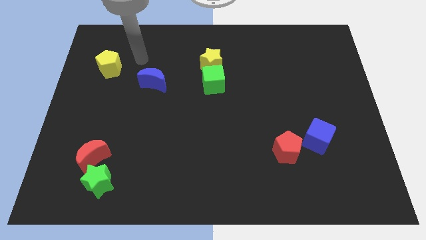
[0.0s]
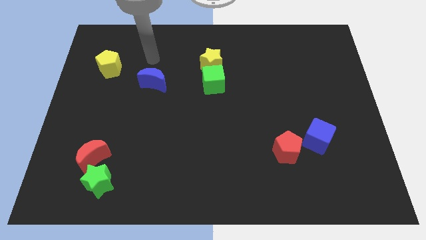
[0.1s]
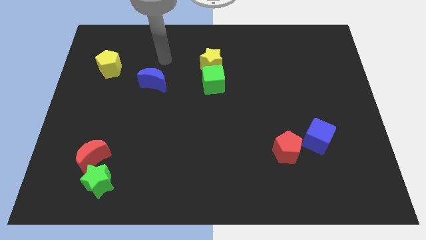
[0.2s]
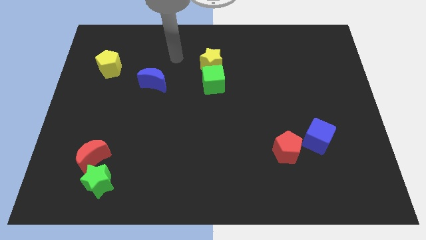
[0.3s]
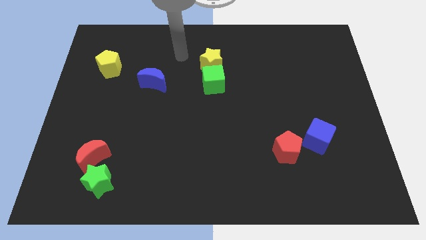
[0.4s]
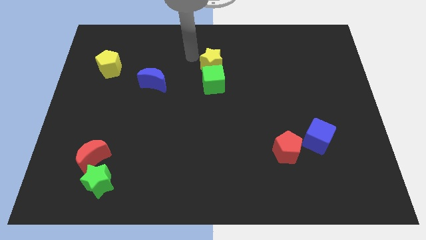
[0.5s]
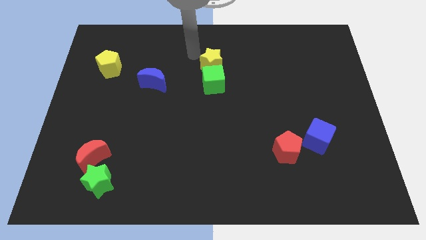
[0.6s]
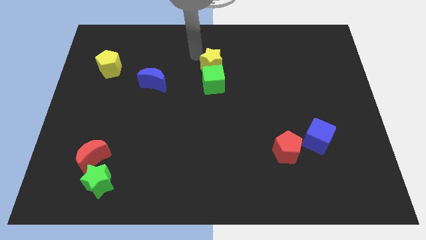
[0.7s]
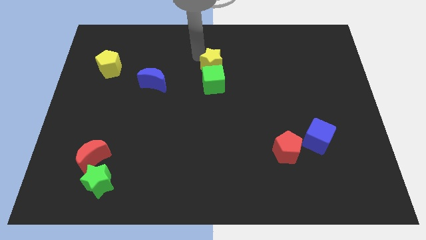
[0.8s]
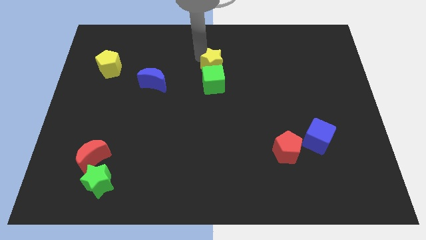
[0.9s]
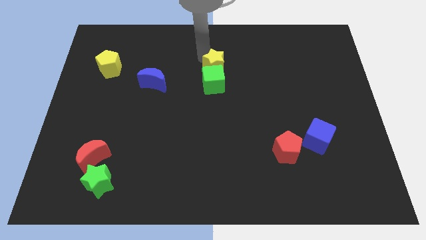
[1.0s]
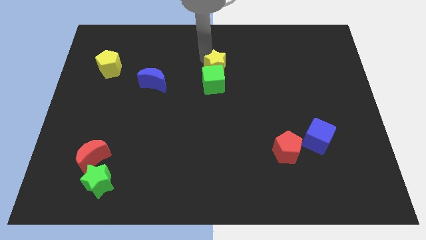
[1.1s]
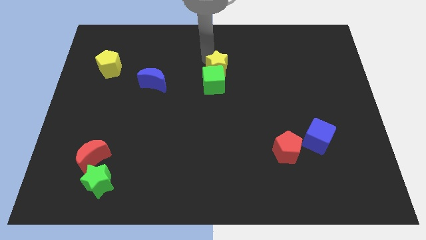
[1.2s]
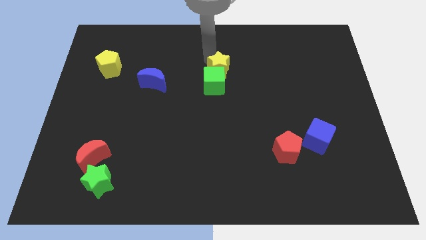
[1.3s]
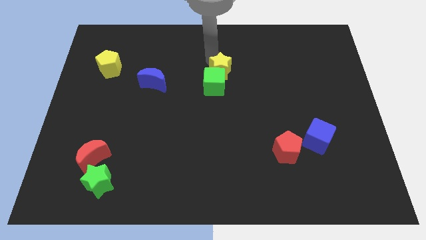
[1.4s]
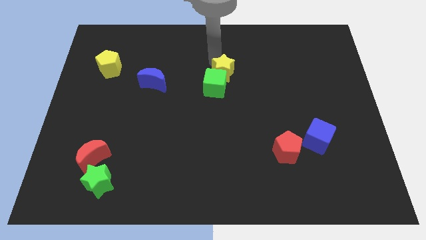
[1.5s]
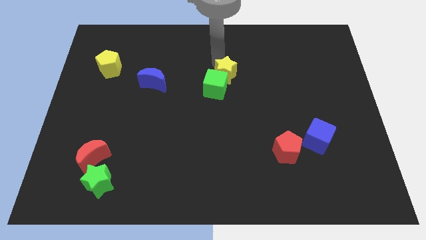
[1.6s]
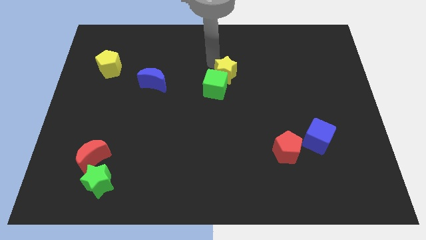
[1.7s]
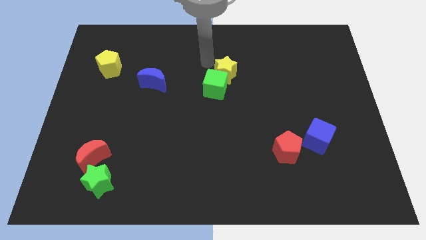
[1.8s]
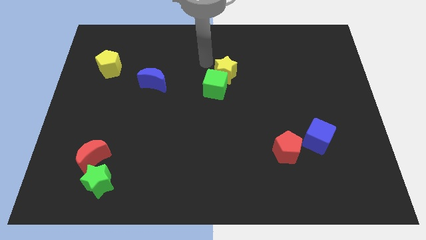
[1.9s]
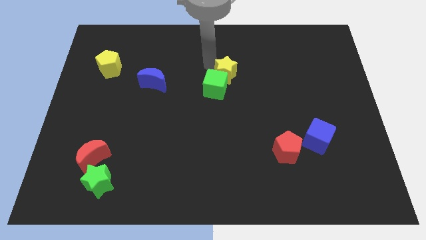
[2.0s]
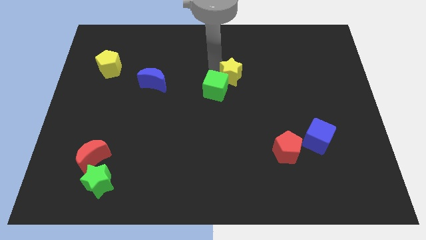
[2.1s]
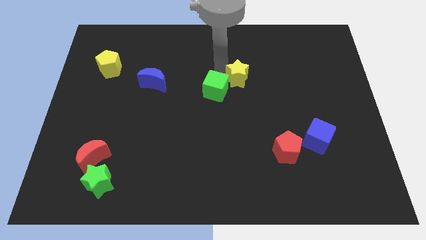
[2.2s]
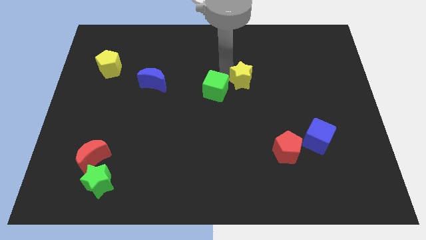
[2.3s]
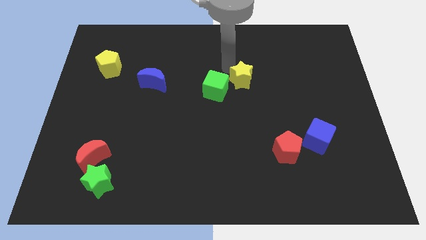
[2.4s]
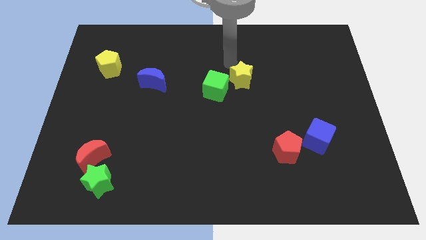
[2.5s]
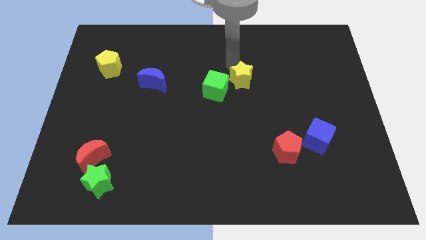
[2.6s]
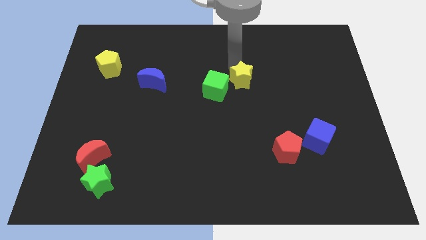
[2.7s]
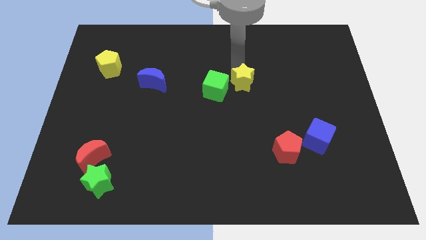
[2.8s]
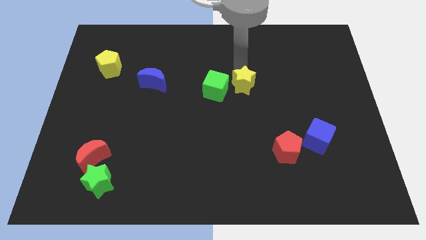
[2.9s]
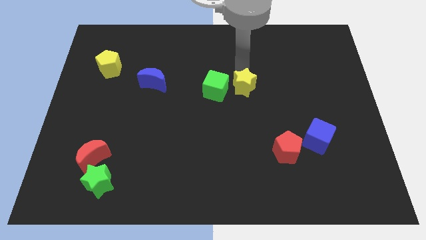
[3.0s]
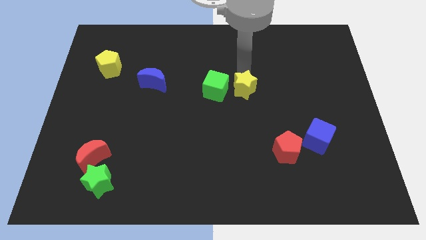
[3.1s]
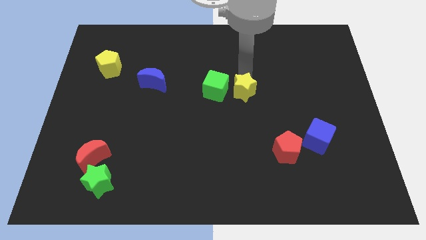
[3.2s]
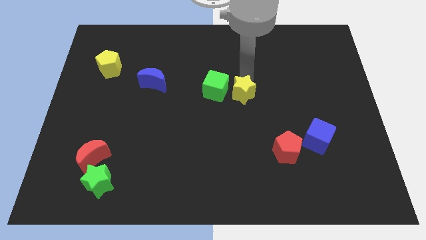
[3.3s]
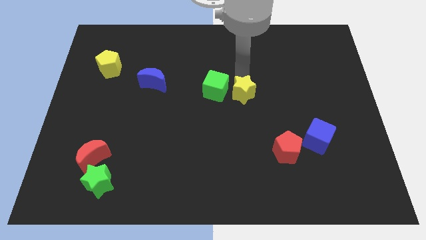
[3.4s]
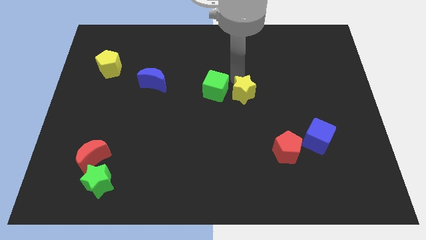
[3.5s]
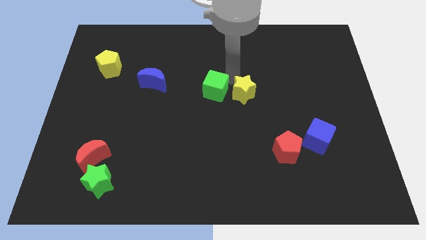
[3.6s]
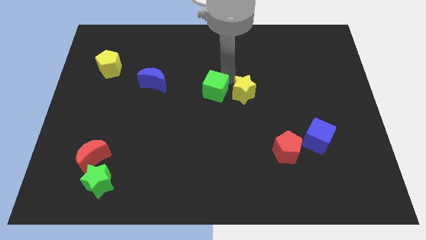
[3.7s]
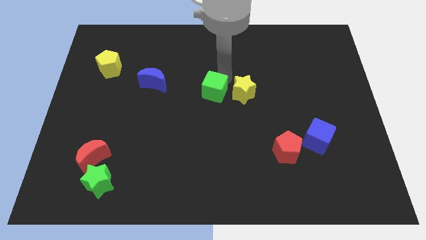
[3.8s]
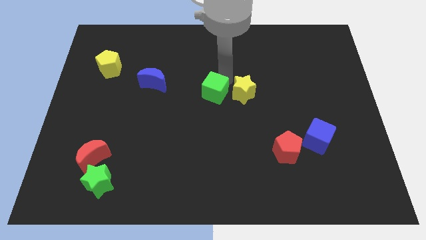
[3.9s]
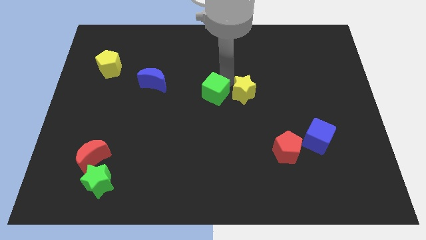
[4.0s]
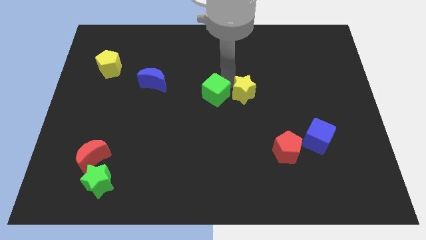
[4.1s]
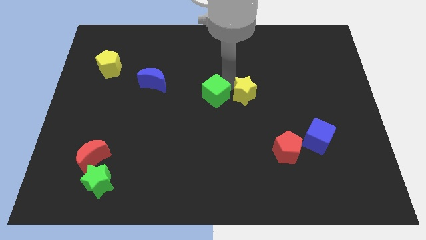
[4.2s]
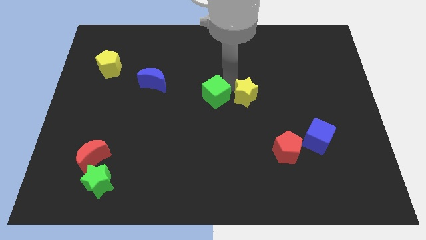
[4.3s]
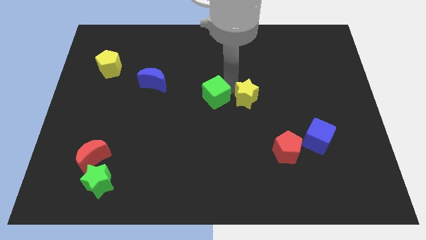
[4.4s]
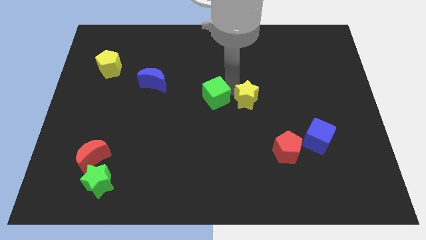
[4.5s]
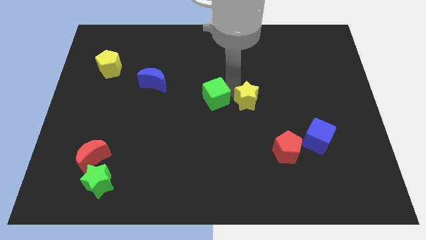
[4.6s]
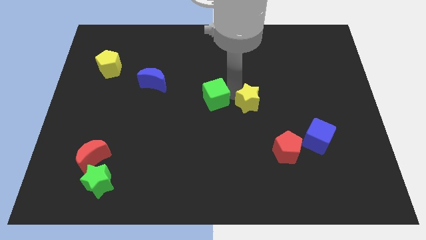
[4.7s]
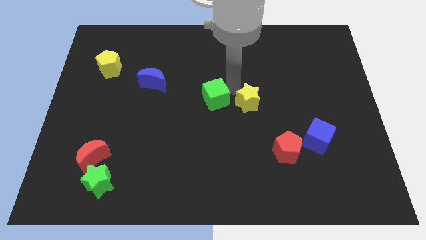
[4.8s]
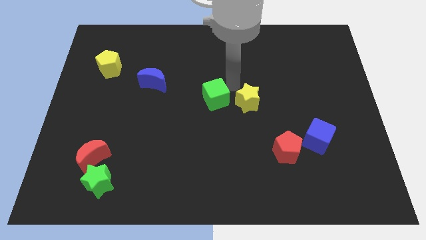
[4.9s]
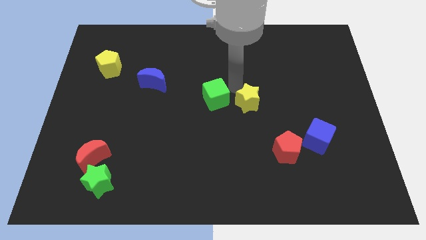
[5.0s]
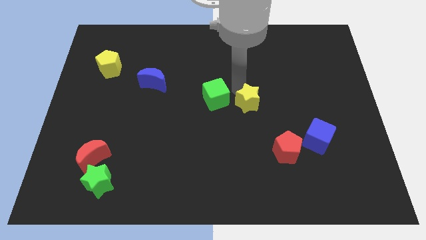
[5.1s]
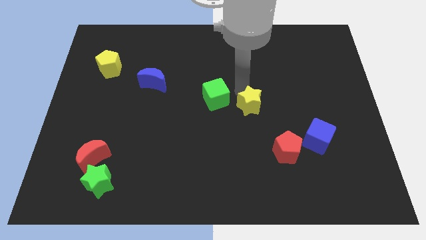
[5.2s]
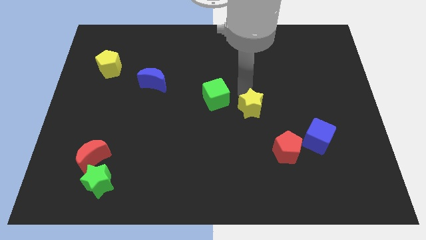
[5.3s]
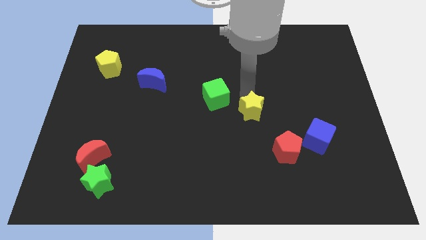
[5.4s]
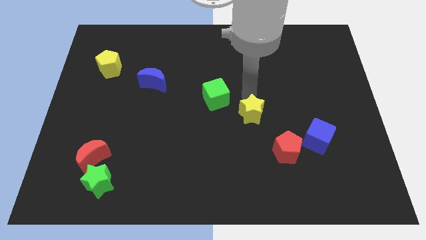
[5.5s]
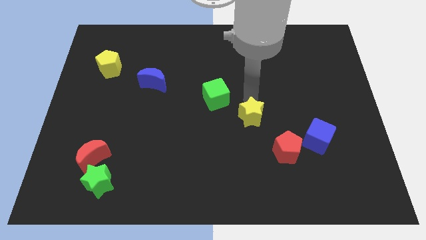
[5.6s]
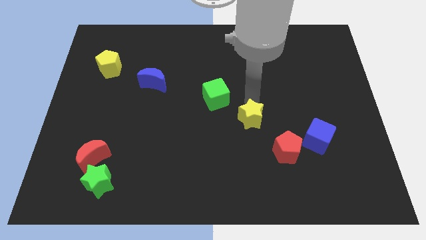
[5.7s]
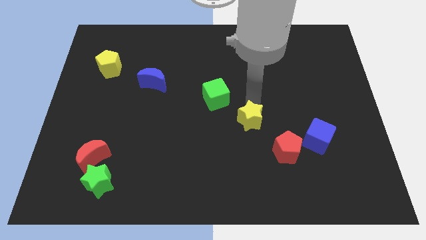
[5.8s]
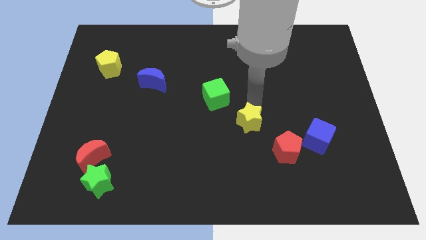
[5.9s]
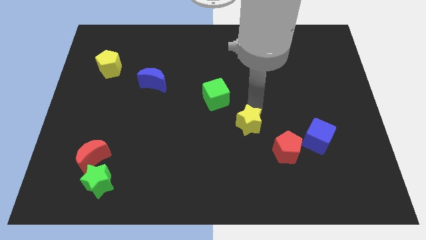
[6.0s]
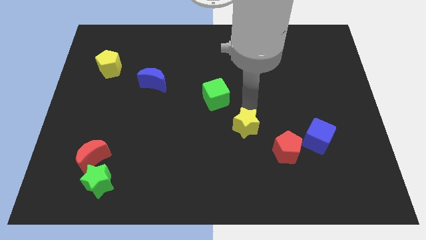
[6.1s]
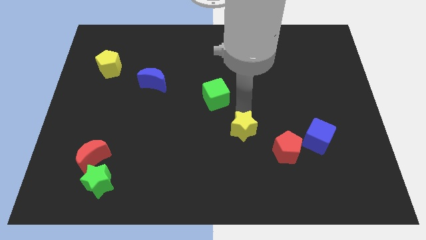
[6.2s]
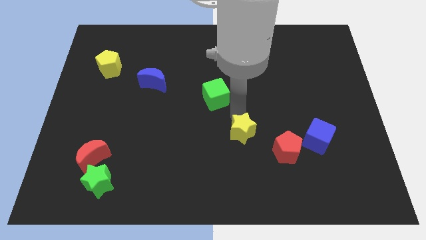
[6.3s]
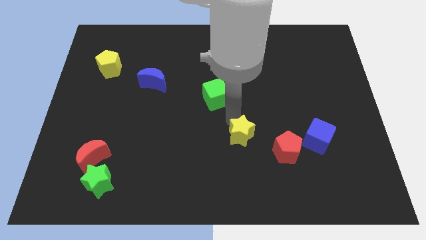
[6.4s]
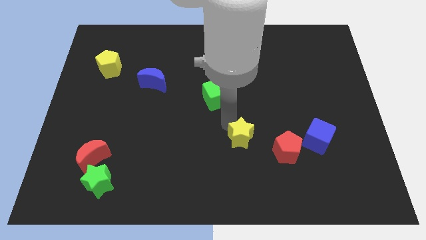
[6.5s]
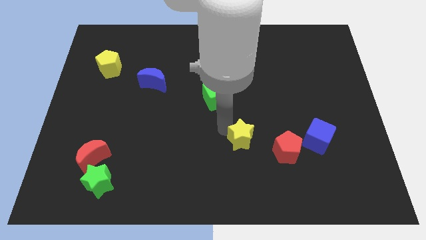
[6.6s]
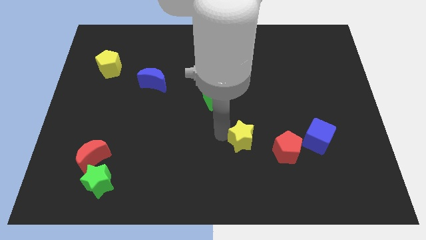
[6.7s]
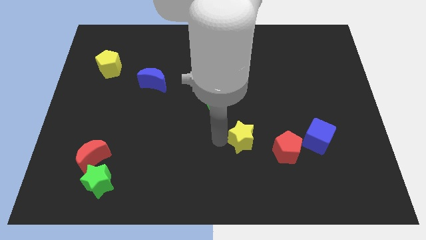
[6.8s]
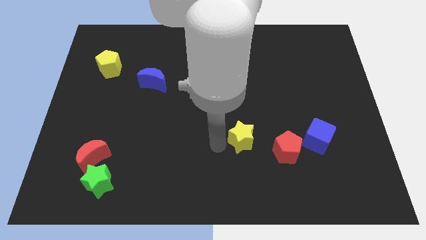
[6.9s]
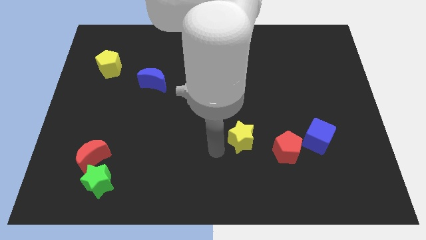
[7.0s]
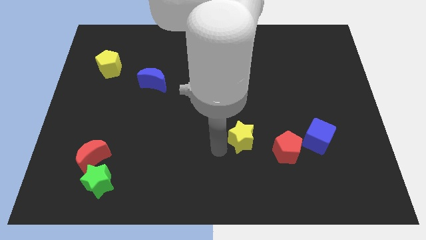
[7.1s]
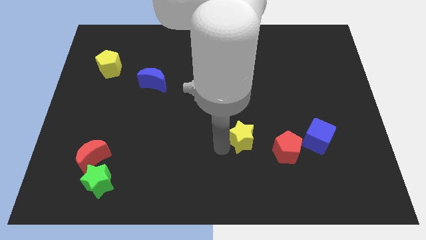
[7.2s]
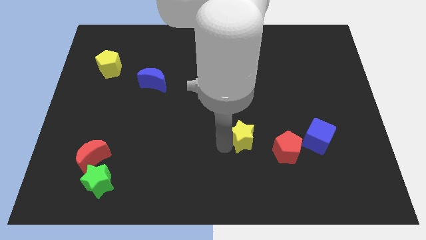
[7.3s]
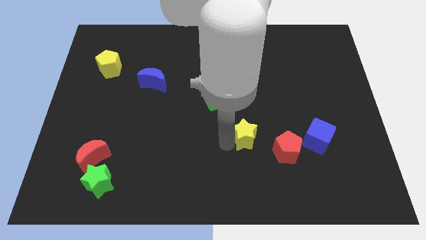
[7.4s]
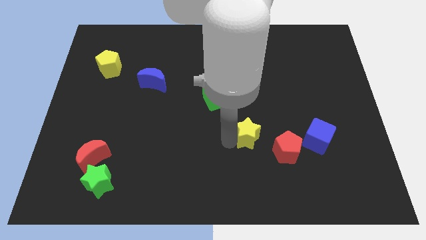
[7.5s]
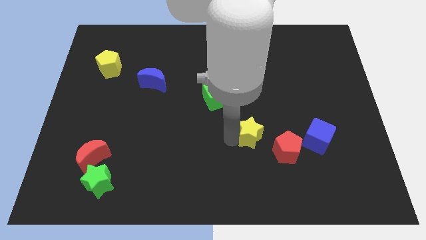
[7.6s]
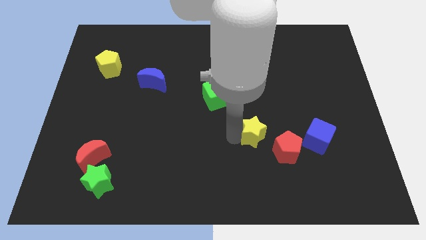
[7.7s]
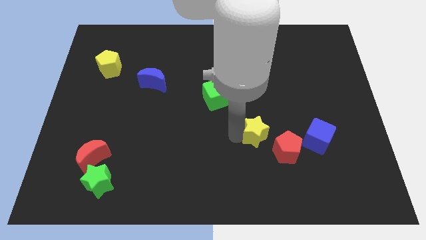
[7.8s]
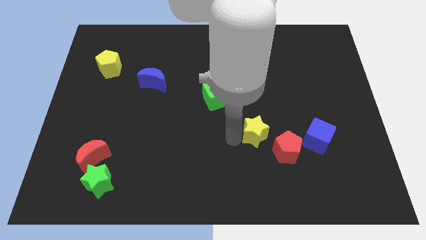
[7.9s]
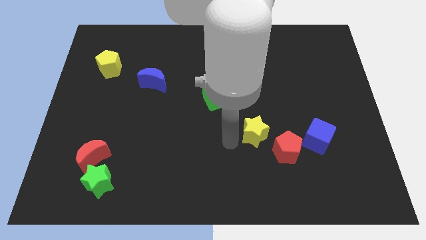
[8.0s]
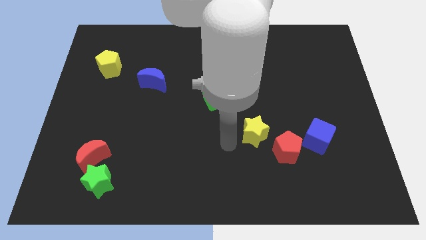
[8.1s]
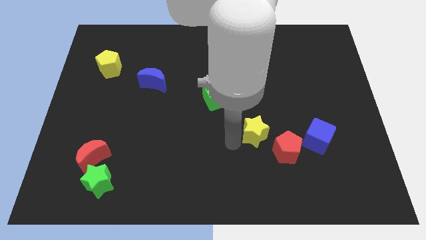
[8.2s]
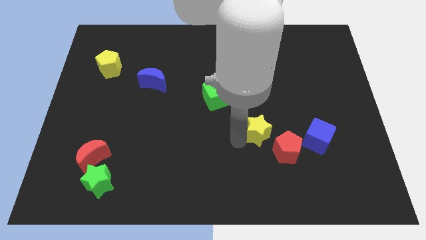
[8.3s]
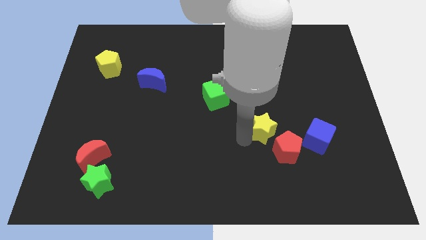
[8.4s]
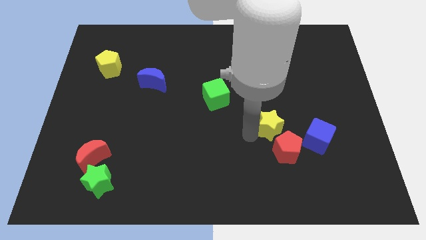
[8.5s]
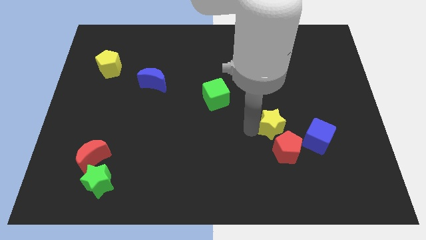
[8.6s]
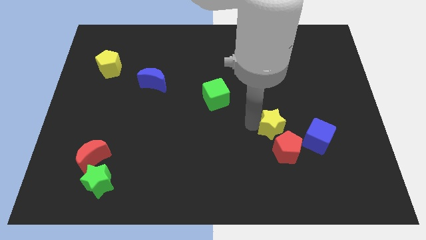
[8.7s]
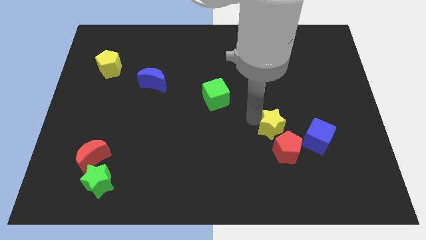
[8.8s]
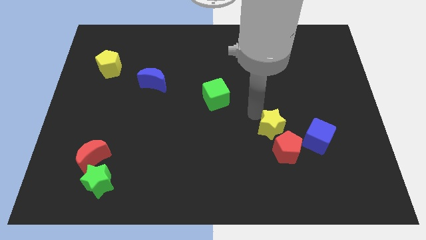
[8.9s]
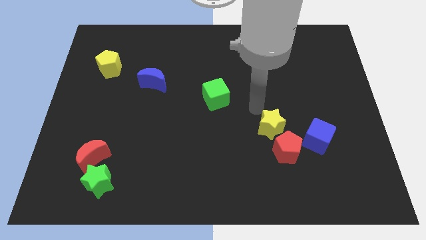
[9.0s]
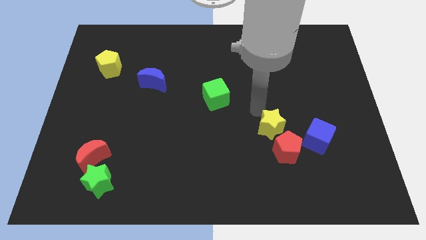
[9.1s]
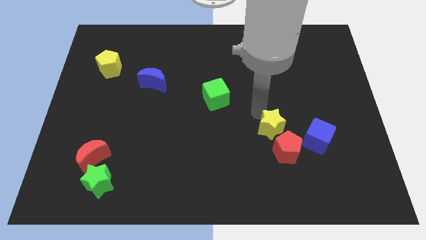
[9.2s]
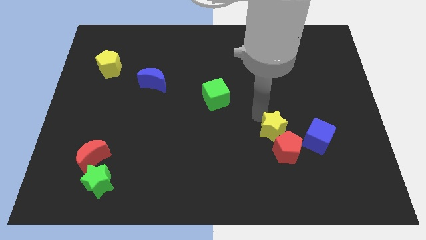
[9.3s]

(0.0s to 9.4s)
move the yellow star next to the red pentagon
